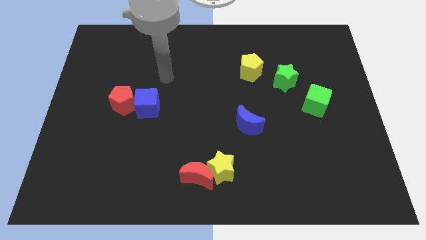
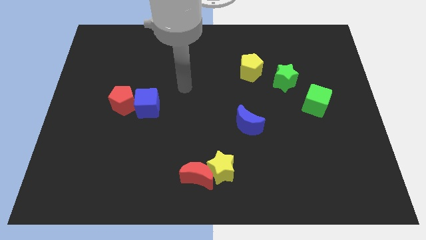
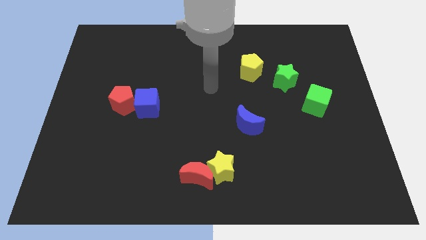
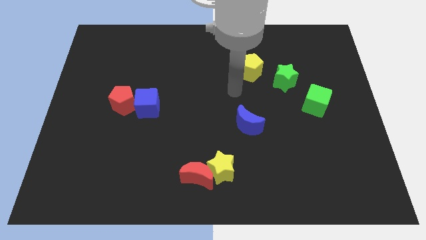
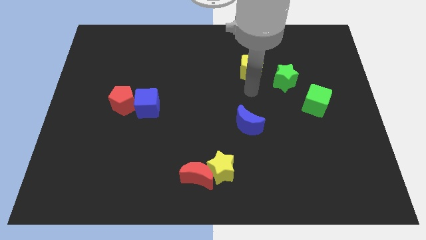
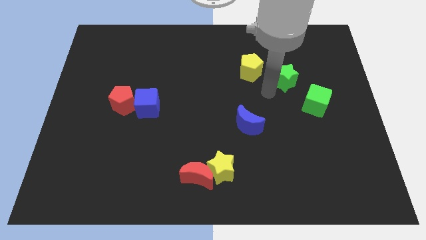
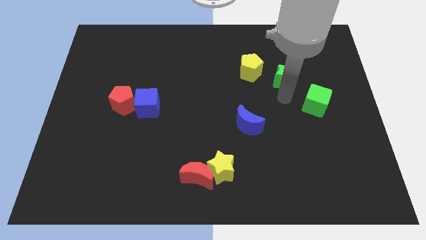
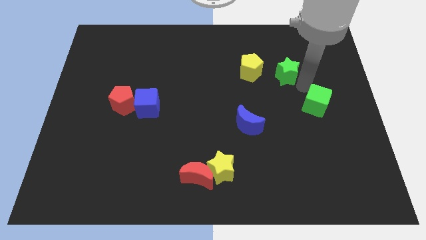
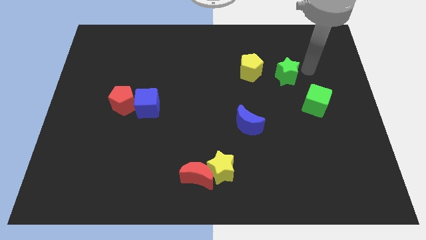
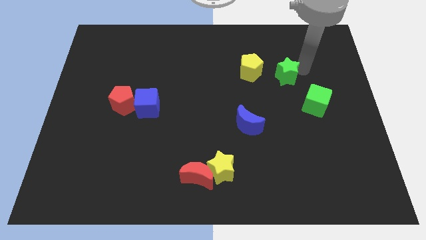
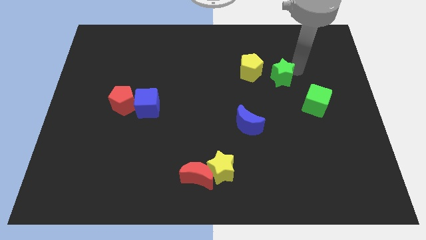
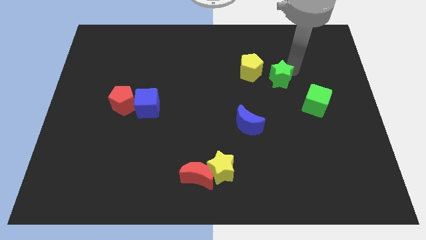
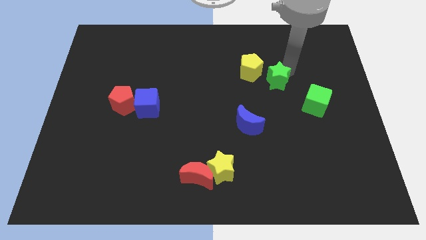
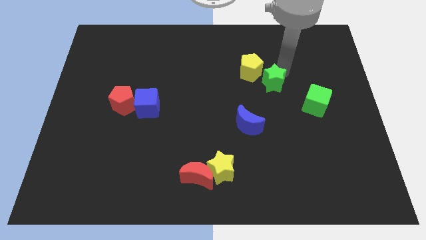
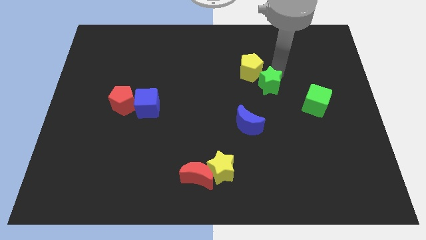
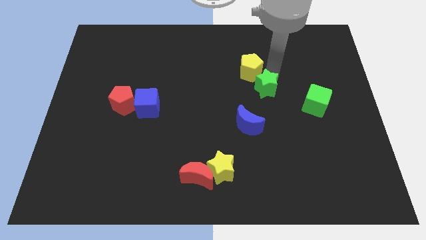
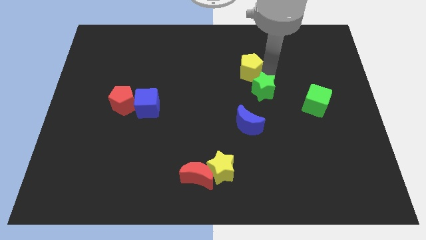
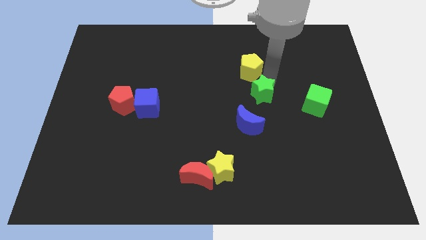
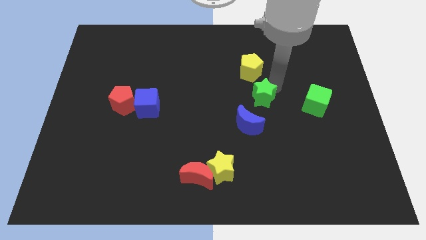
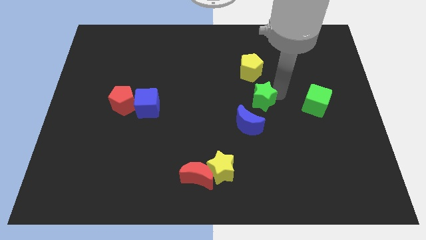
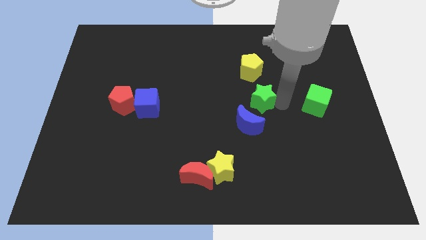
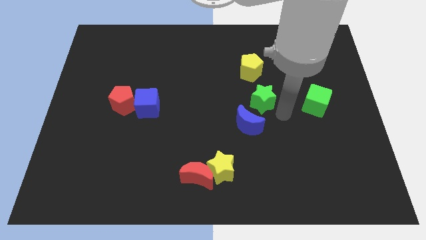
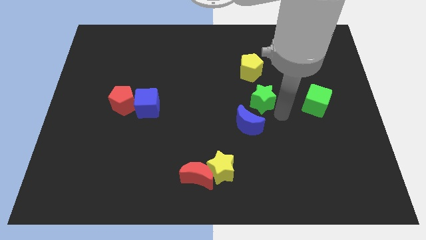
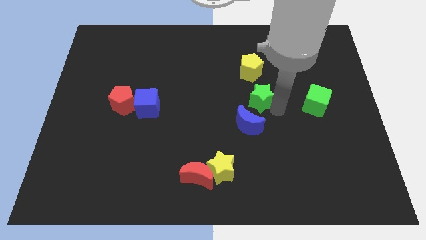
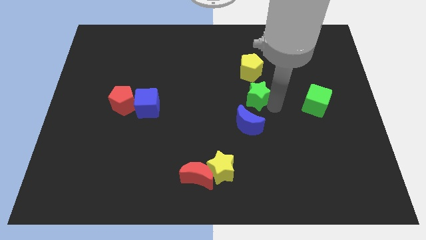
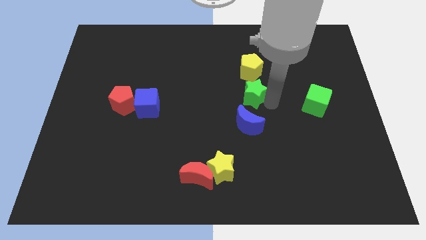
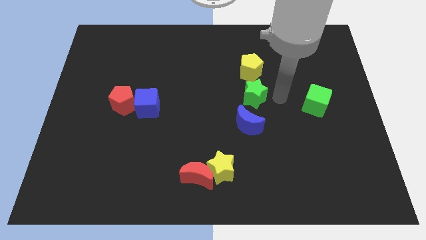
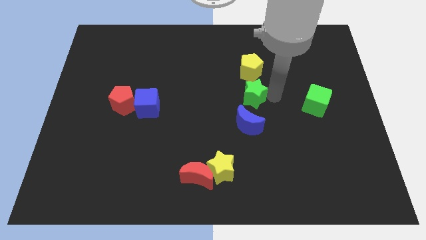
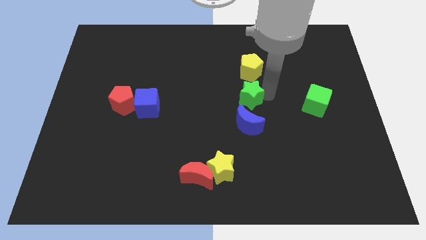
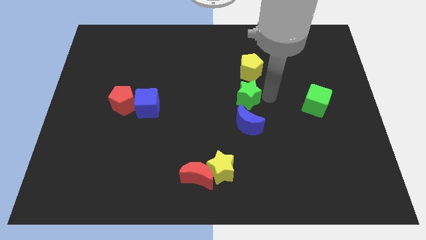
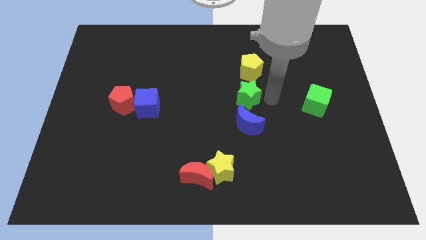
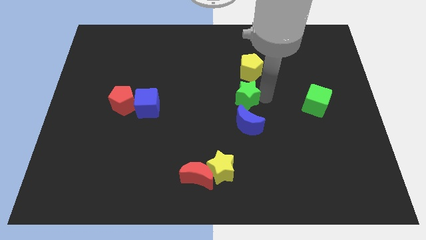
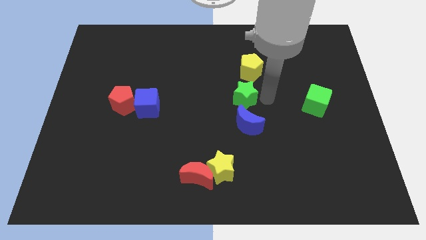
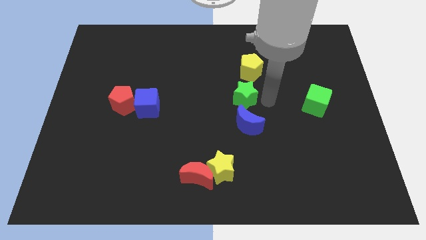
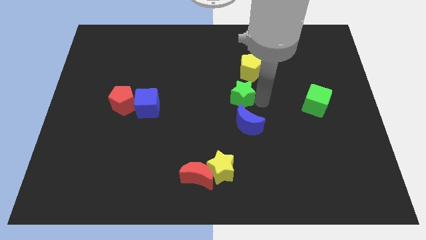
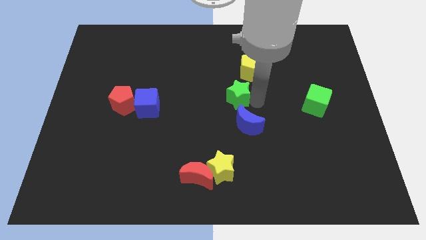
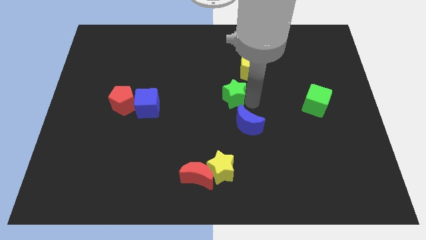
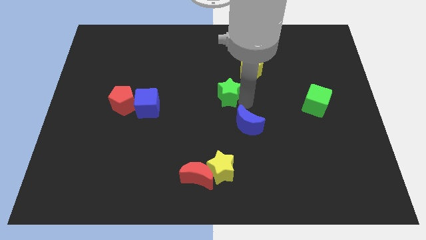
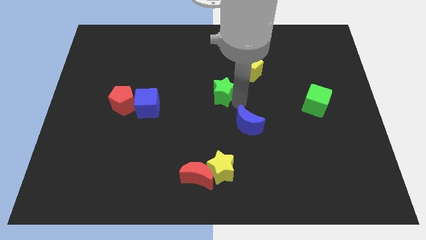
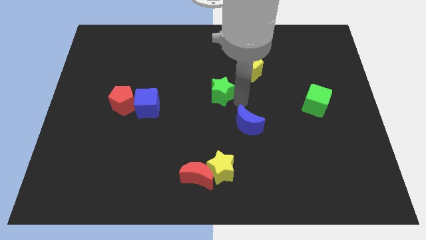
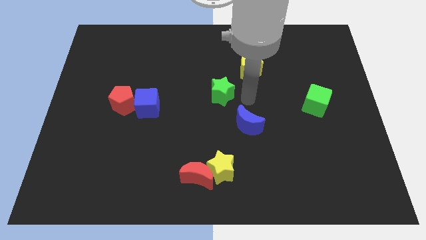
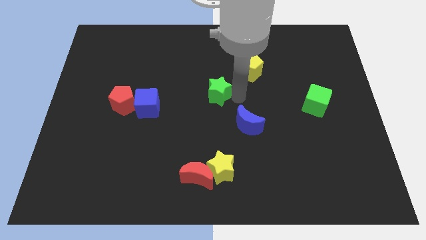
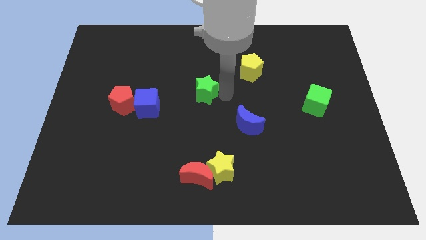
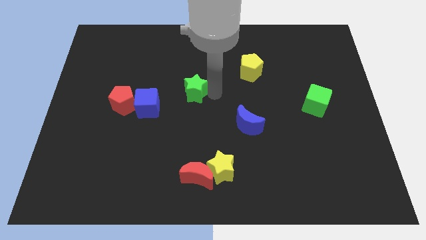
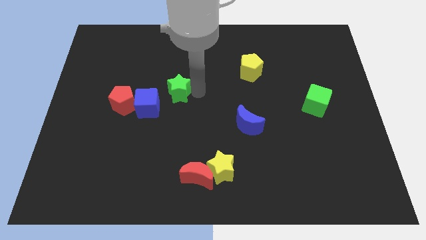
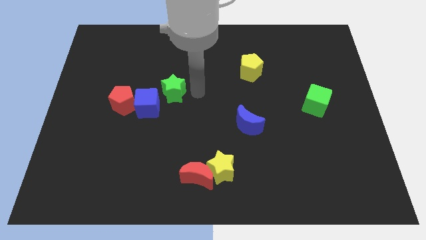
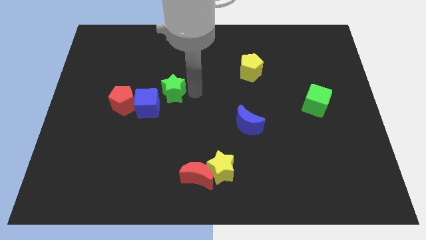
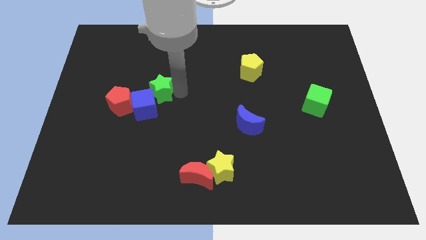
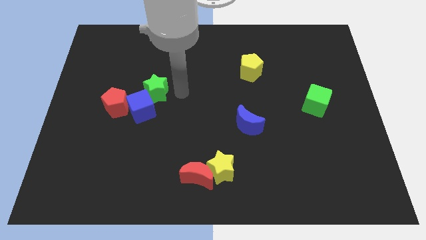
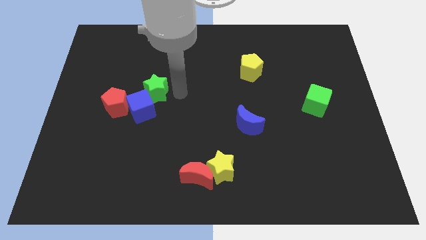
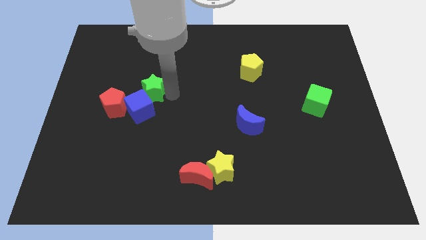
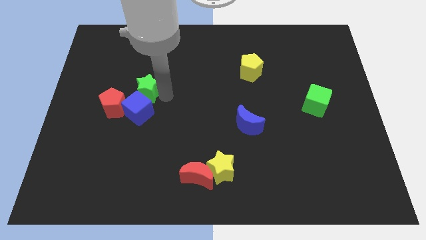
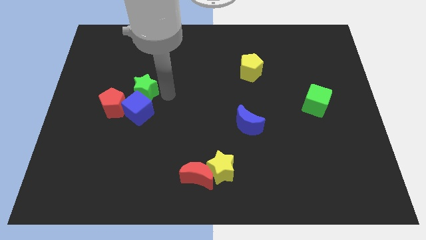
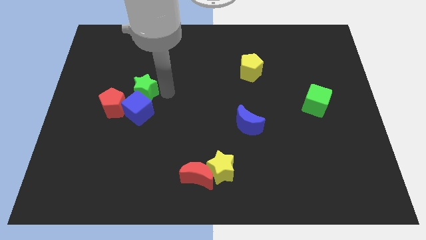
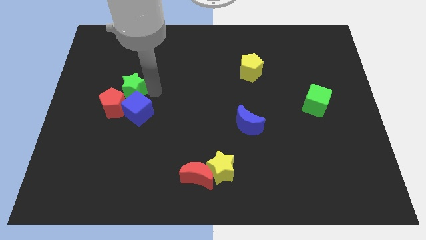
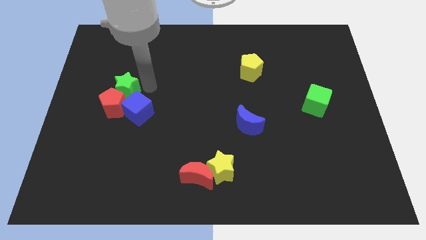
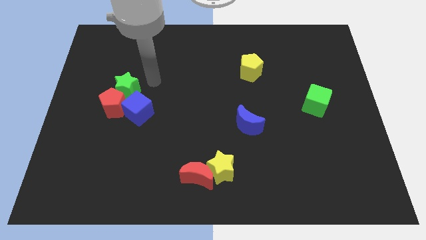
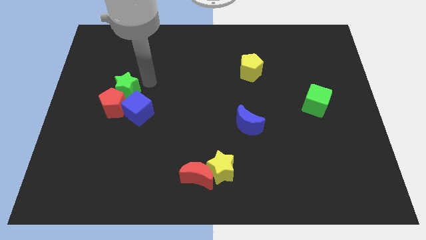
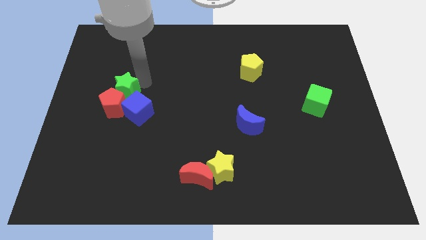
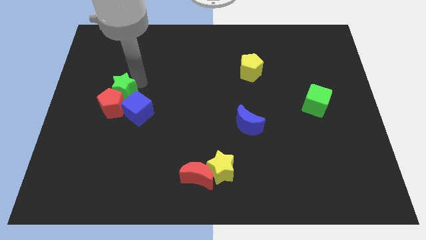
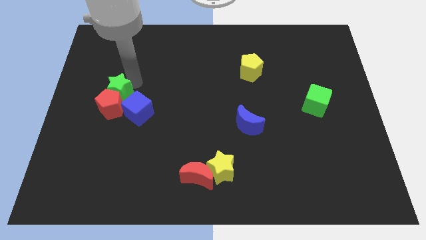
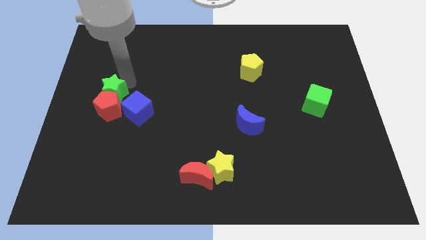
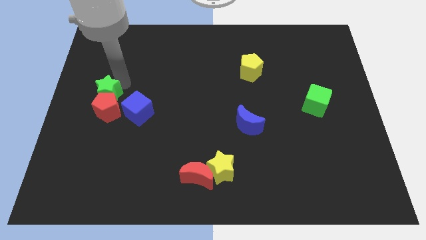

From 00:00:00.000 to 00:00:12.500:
push the green star to the left side
